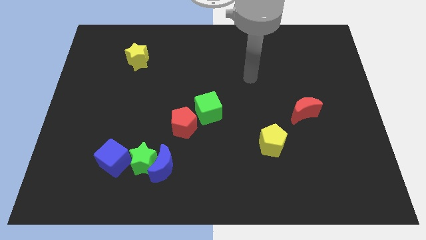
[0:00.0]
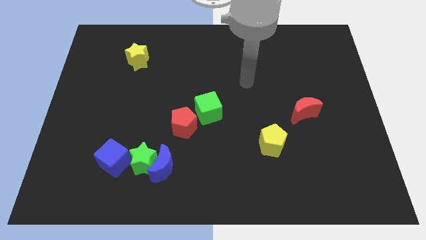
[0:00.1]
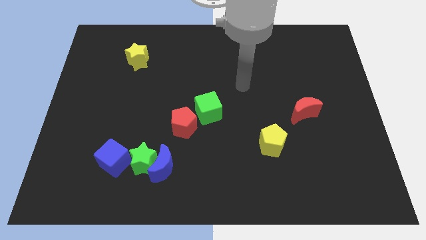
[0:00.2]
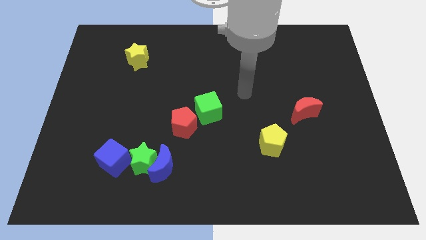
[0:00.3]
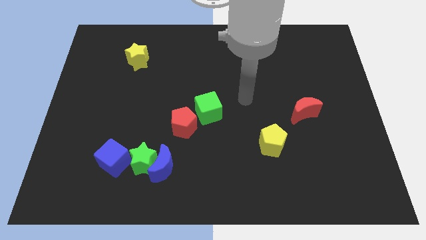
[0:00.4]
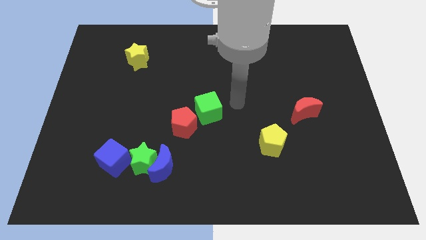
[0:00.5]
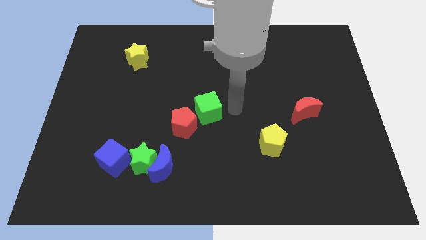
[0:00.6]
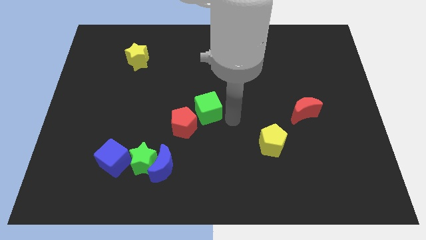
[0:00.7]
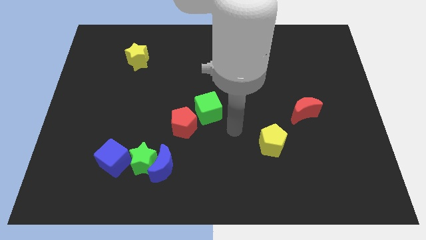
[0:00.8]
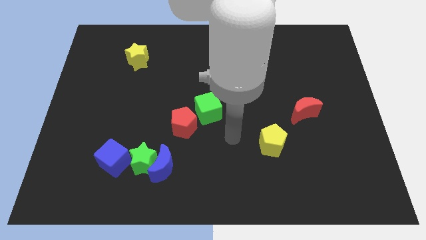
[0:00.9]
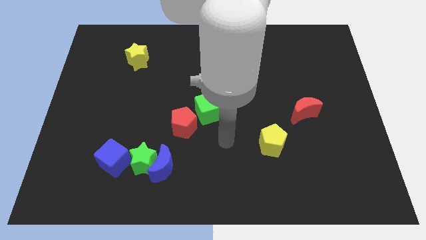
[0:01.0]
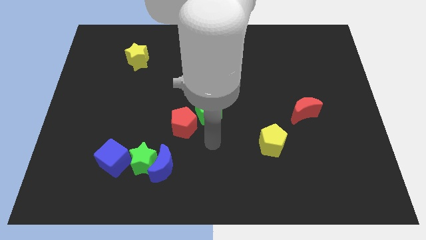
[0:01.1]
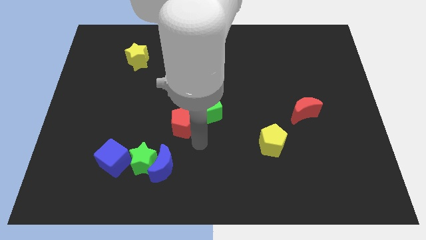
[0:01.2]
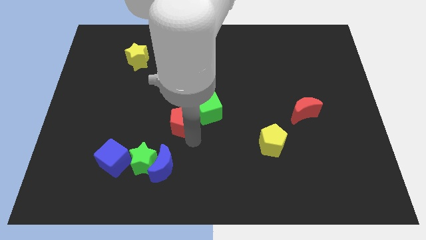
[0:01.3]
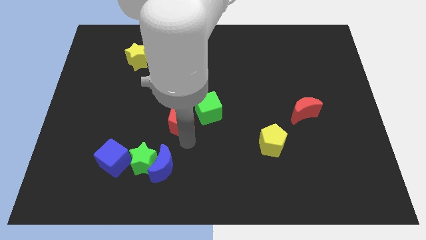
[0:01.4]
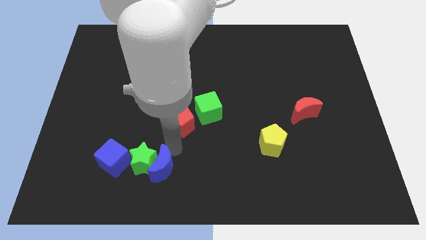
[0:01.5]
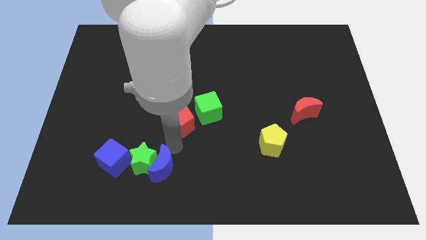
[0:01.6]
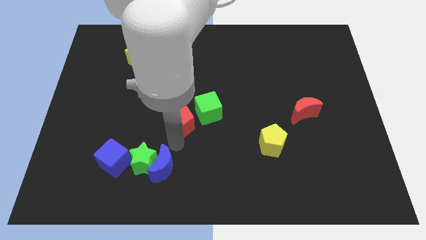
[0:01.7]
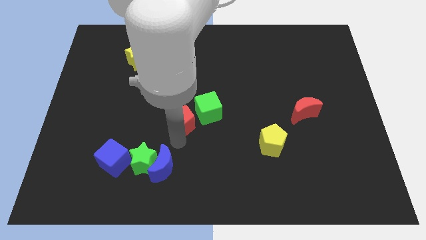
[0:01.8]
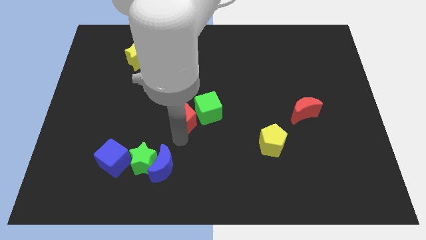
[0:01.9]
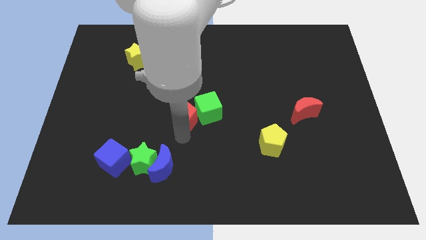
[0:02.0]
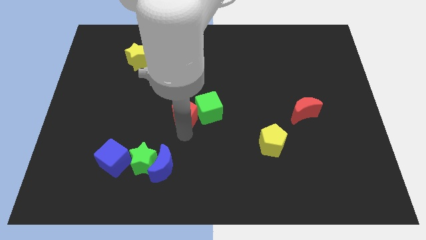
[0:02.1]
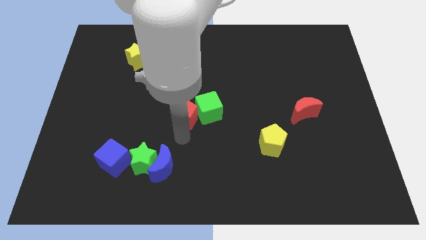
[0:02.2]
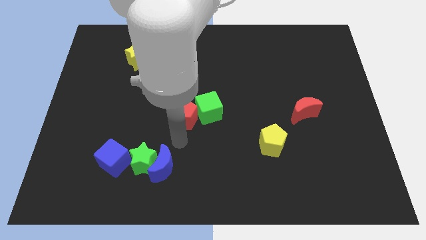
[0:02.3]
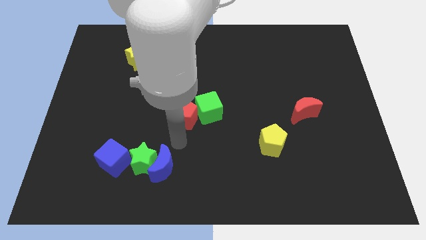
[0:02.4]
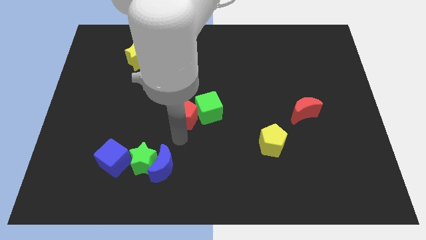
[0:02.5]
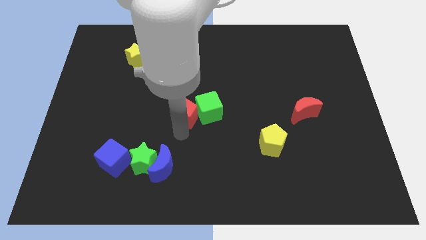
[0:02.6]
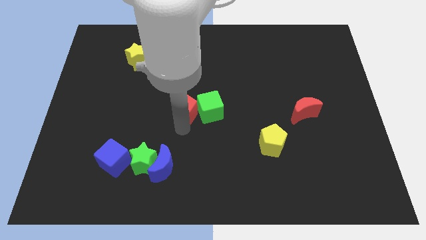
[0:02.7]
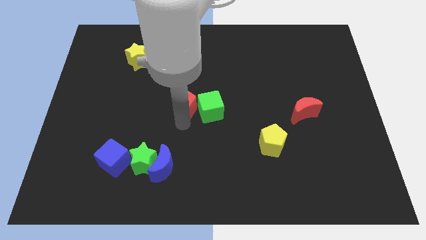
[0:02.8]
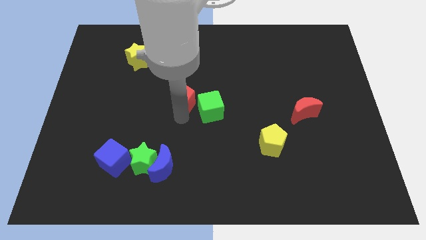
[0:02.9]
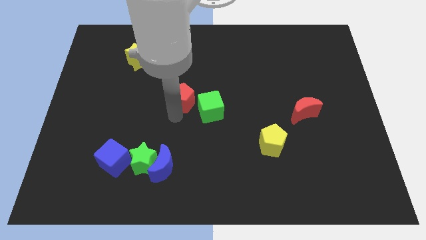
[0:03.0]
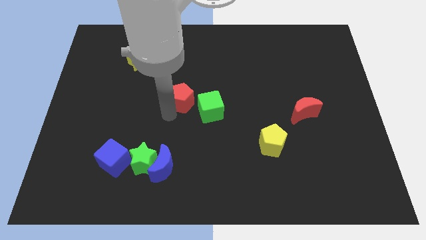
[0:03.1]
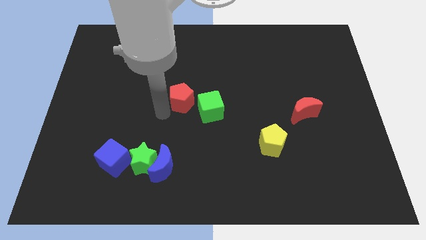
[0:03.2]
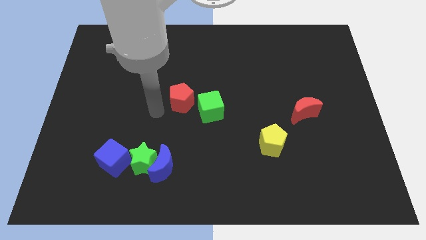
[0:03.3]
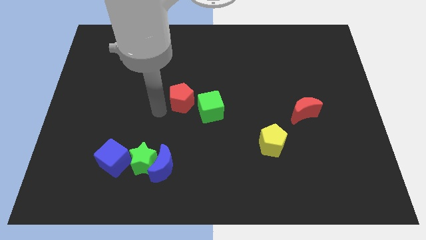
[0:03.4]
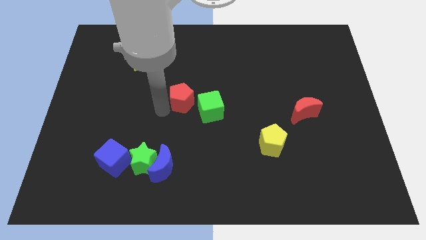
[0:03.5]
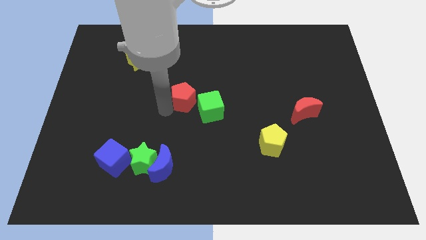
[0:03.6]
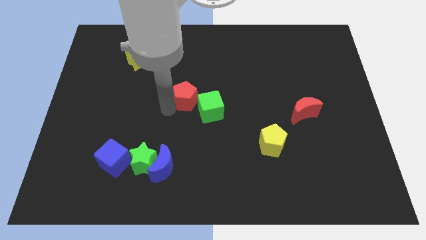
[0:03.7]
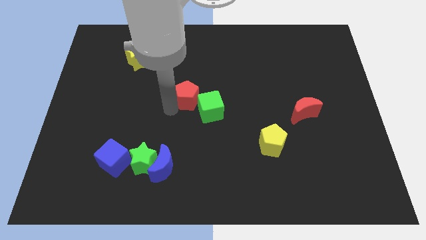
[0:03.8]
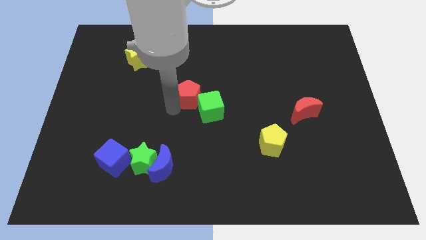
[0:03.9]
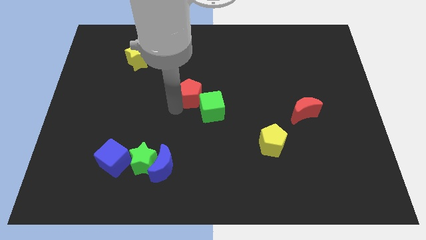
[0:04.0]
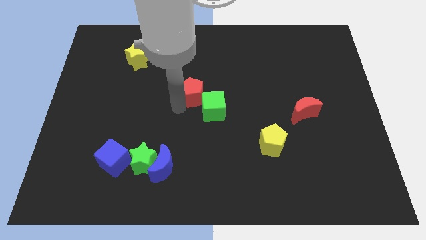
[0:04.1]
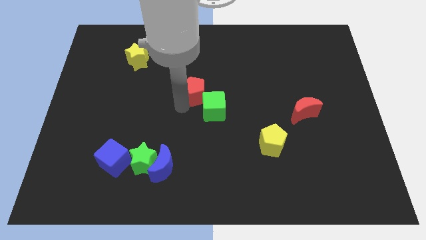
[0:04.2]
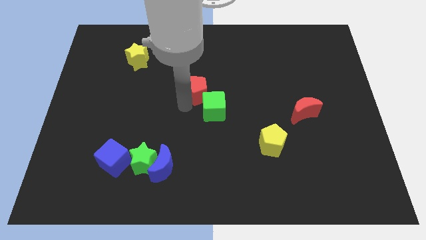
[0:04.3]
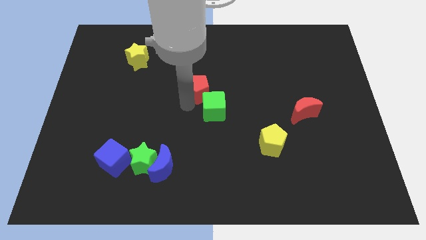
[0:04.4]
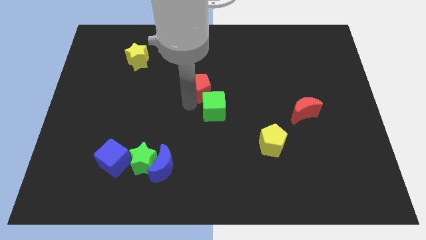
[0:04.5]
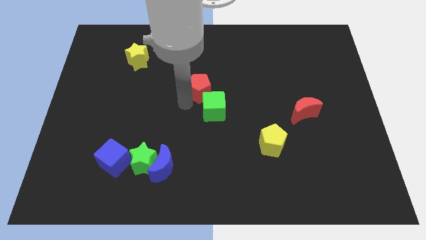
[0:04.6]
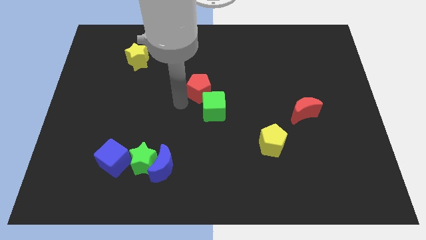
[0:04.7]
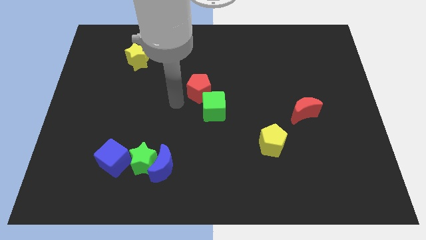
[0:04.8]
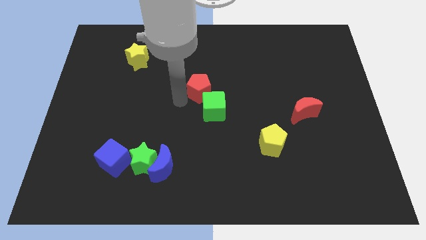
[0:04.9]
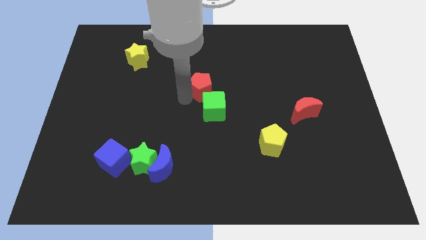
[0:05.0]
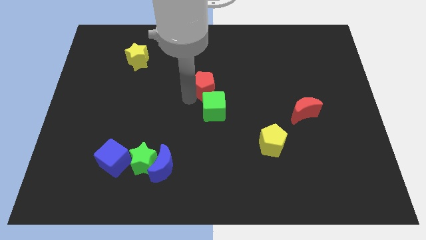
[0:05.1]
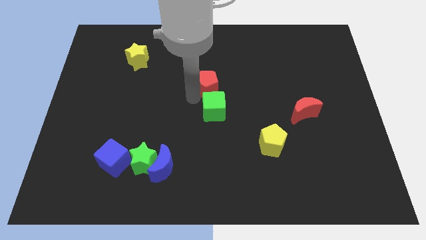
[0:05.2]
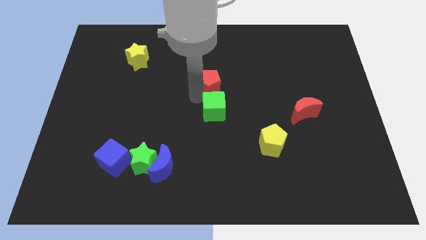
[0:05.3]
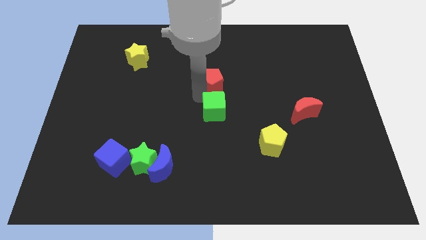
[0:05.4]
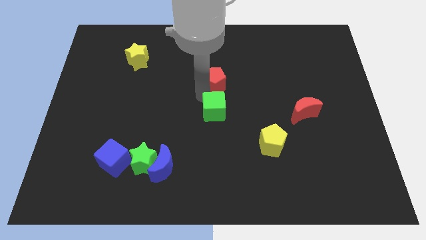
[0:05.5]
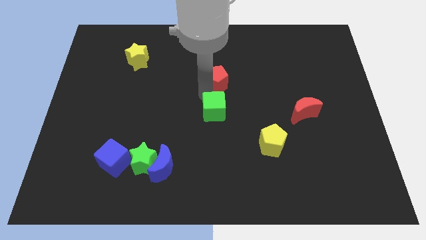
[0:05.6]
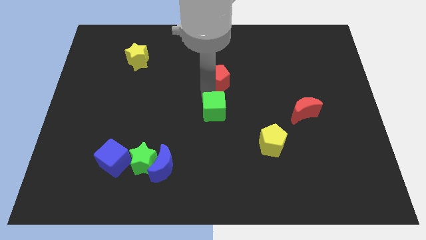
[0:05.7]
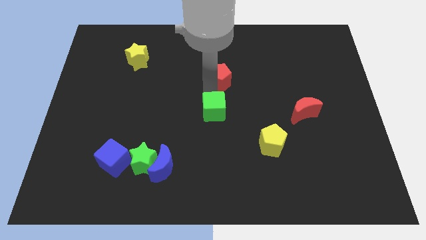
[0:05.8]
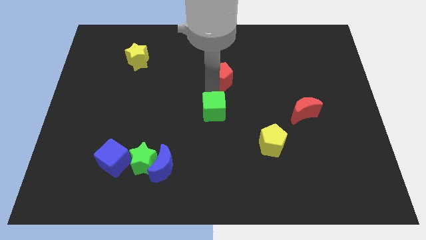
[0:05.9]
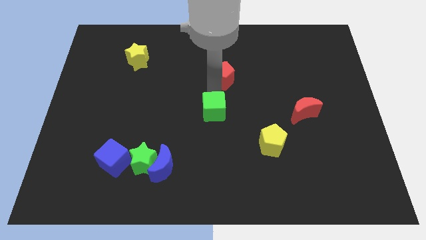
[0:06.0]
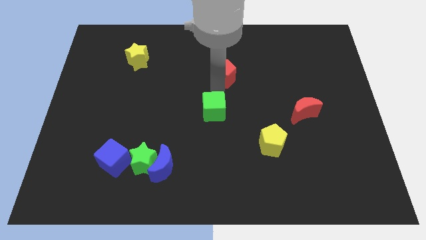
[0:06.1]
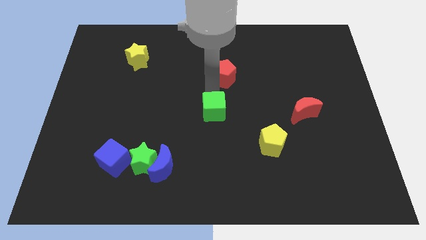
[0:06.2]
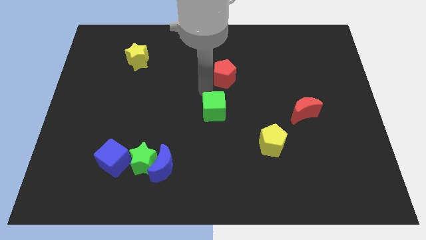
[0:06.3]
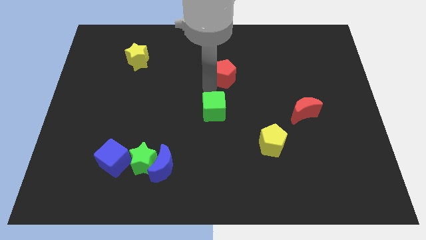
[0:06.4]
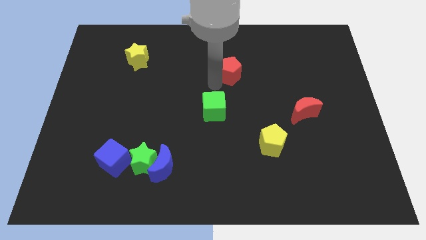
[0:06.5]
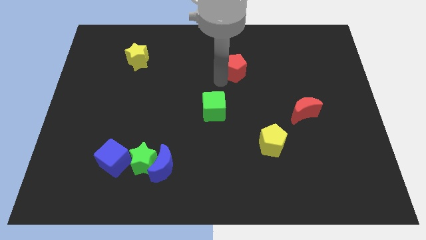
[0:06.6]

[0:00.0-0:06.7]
slide the red pentagon diagonally upwards and right

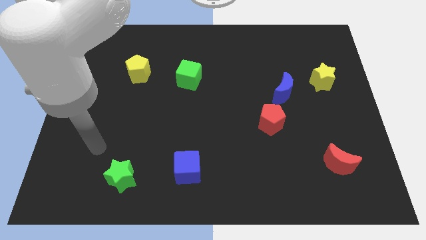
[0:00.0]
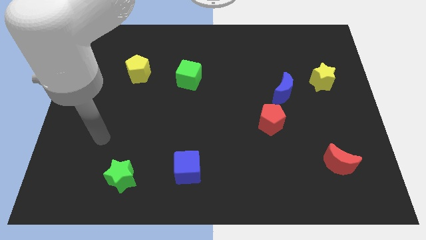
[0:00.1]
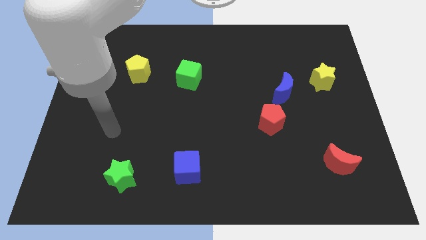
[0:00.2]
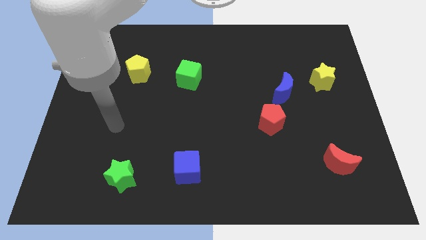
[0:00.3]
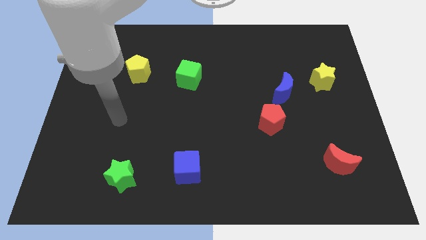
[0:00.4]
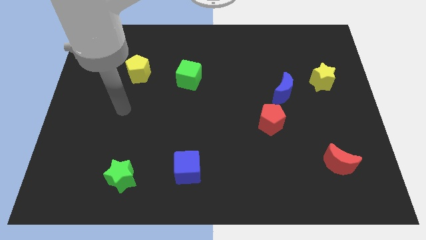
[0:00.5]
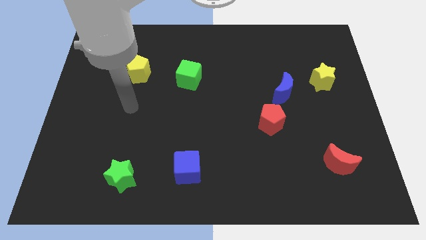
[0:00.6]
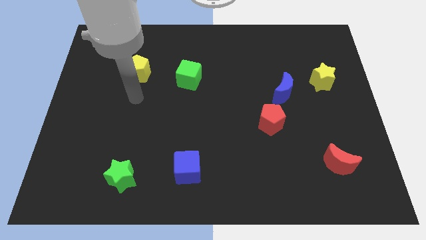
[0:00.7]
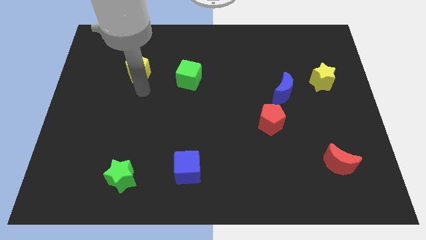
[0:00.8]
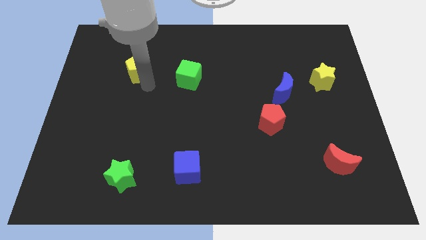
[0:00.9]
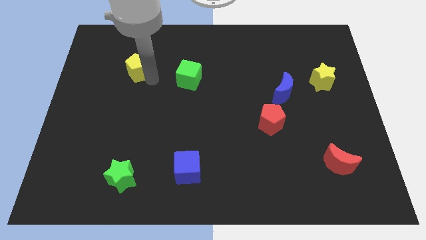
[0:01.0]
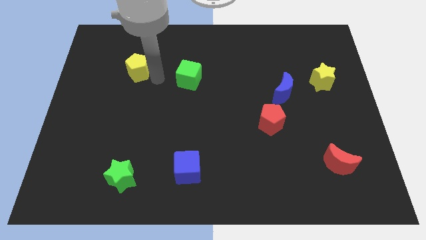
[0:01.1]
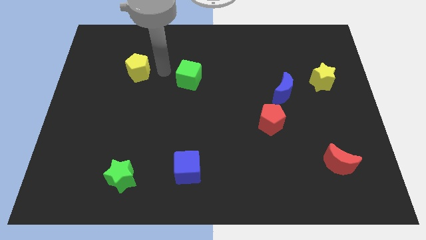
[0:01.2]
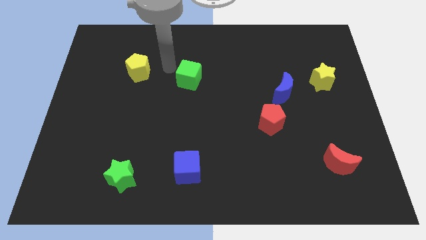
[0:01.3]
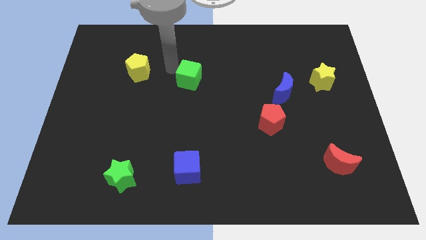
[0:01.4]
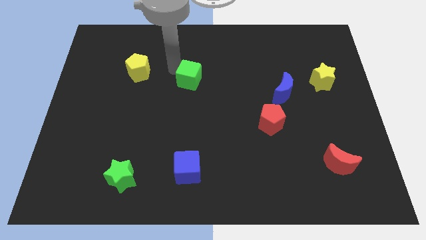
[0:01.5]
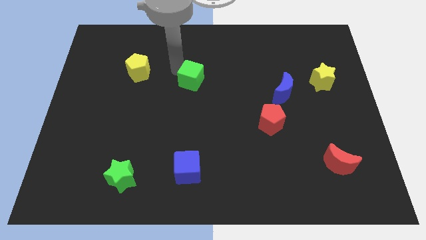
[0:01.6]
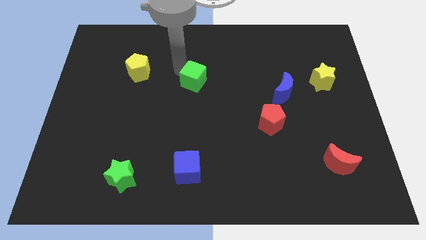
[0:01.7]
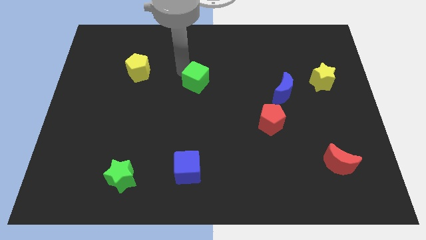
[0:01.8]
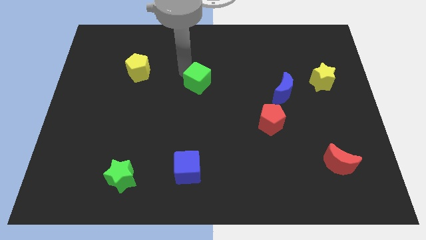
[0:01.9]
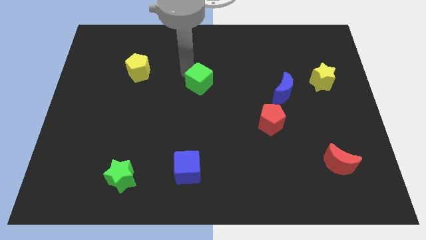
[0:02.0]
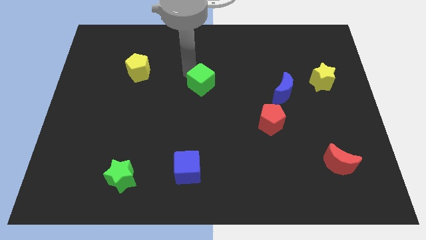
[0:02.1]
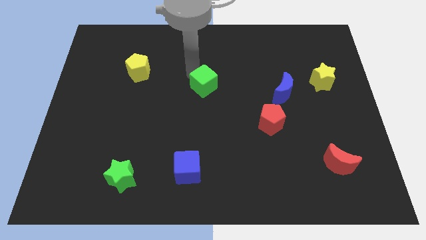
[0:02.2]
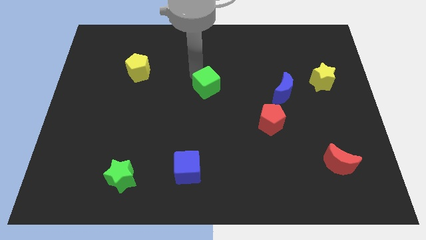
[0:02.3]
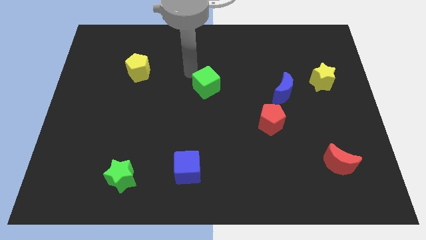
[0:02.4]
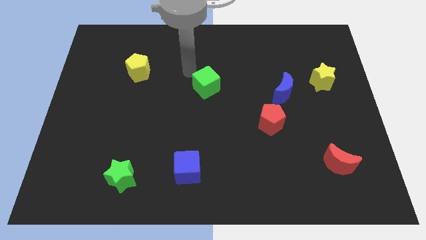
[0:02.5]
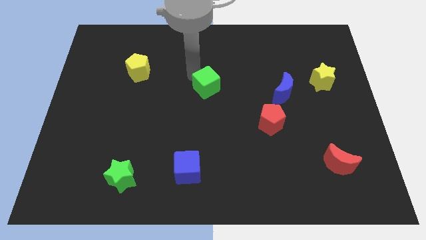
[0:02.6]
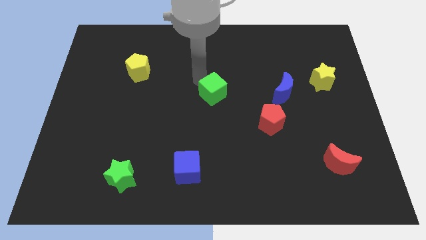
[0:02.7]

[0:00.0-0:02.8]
move the green cube slightly down and right diagonally
